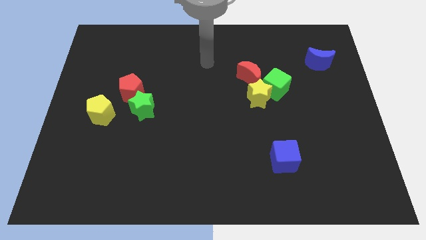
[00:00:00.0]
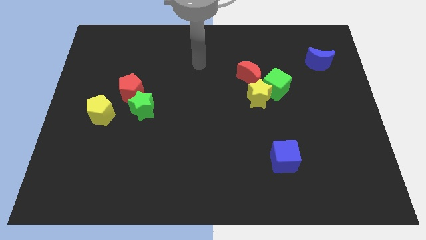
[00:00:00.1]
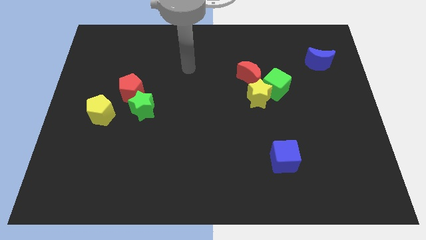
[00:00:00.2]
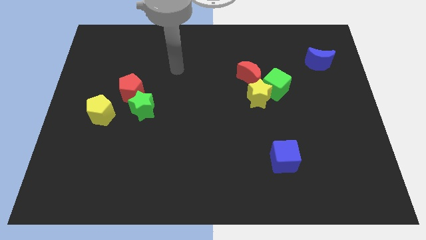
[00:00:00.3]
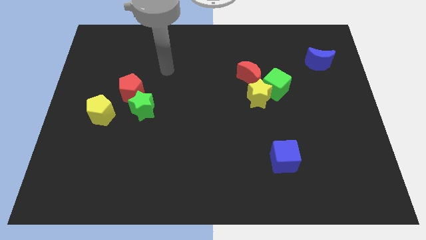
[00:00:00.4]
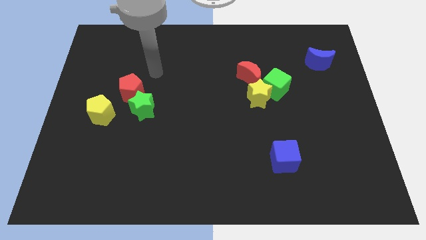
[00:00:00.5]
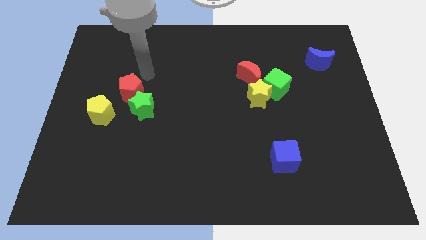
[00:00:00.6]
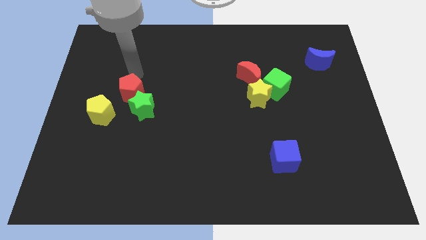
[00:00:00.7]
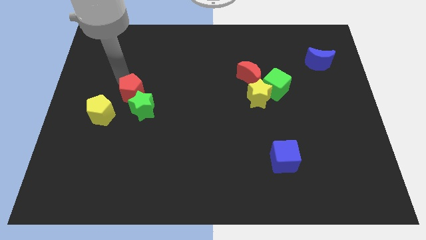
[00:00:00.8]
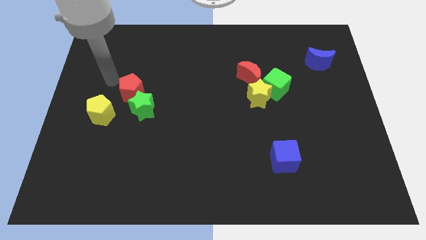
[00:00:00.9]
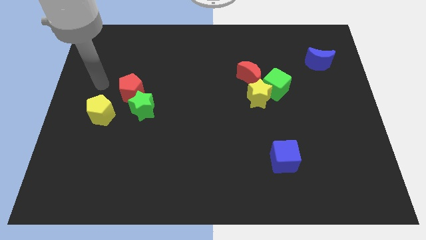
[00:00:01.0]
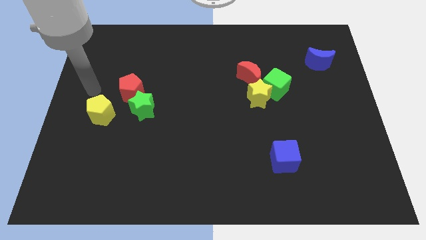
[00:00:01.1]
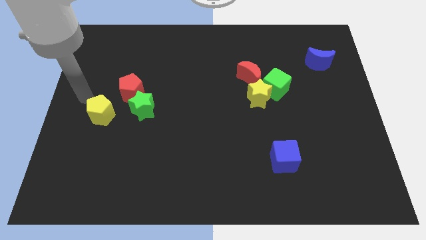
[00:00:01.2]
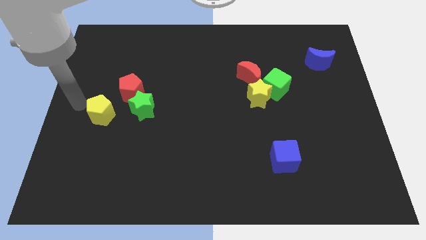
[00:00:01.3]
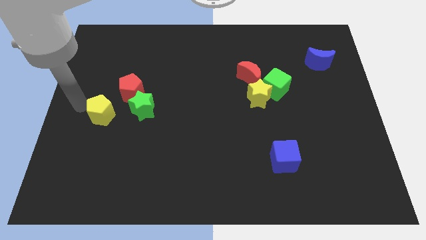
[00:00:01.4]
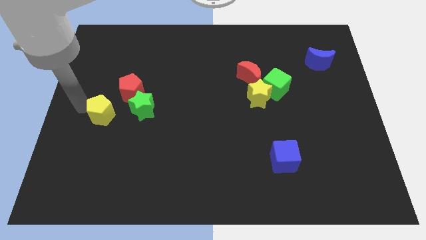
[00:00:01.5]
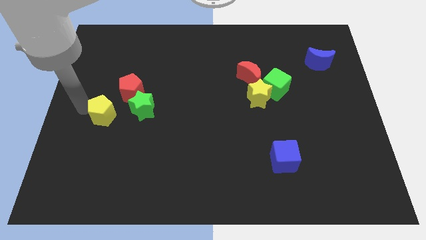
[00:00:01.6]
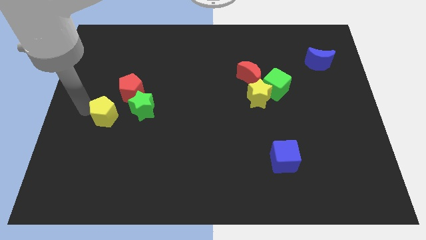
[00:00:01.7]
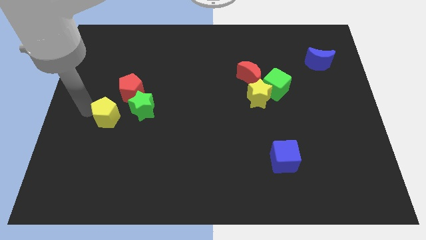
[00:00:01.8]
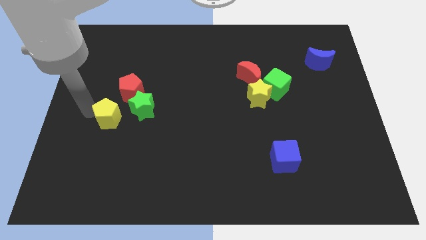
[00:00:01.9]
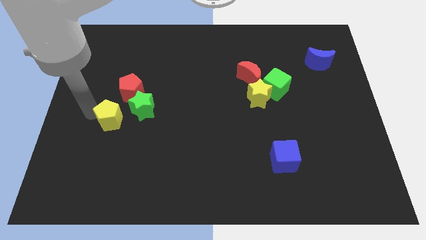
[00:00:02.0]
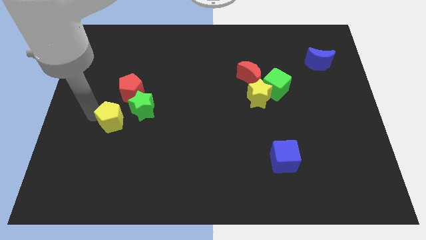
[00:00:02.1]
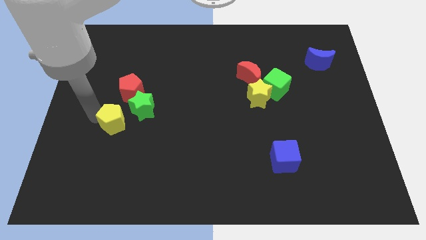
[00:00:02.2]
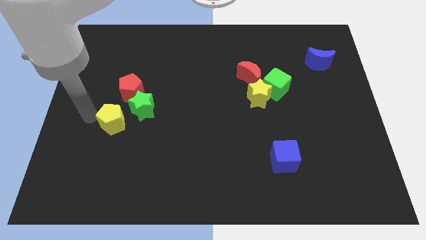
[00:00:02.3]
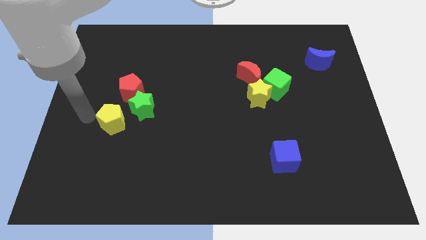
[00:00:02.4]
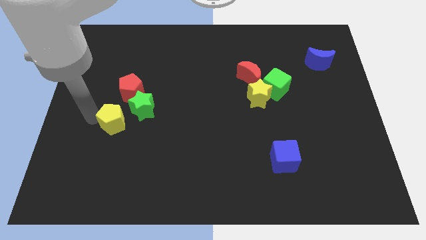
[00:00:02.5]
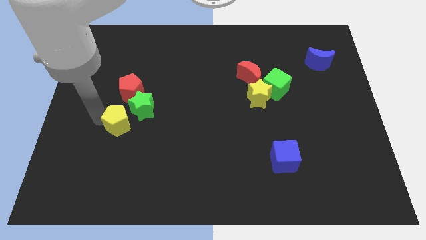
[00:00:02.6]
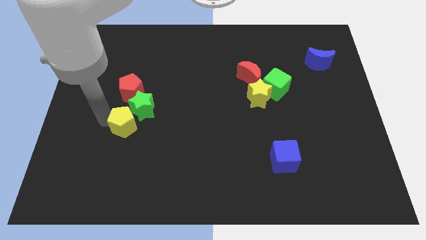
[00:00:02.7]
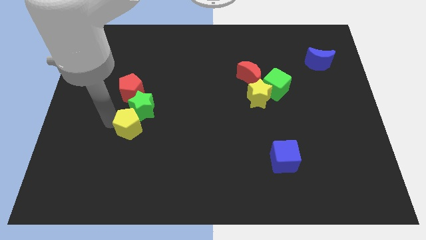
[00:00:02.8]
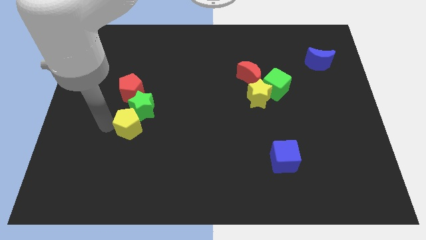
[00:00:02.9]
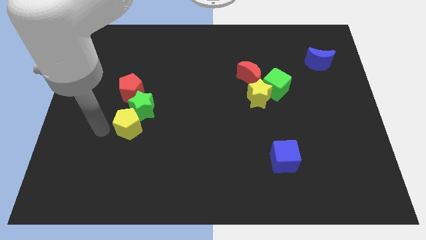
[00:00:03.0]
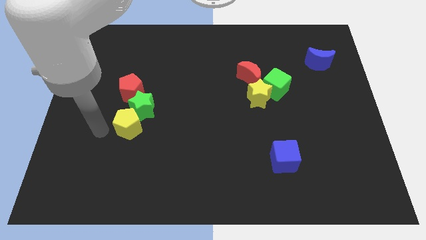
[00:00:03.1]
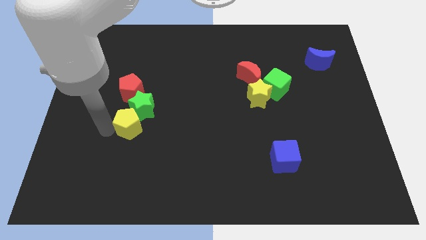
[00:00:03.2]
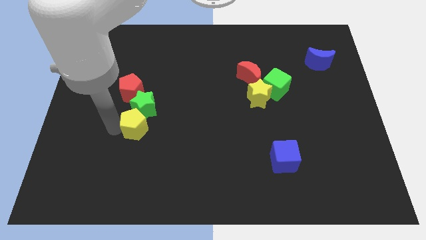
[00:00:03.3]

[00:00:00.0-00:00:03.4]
slide the yellow pentagon a little bit right

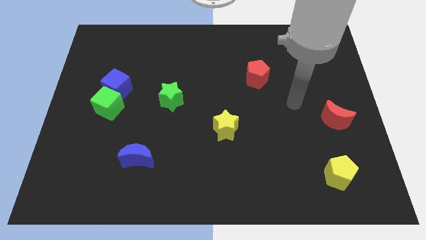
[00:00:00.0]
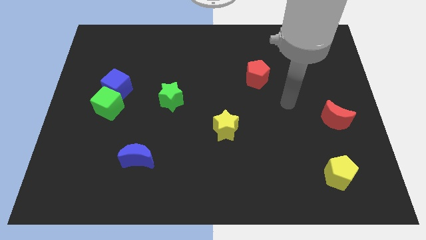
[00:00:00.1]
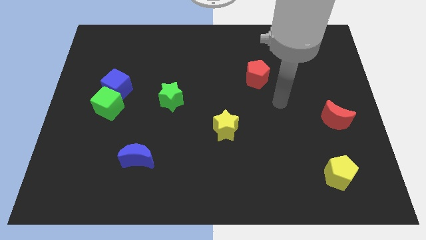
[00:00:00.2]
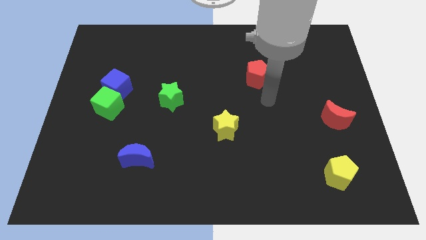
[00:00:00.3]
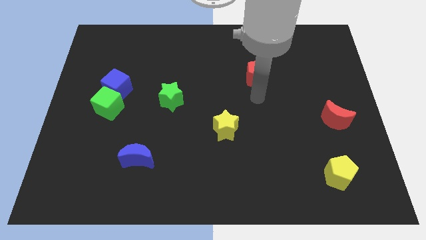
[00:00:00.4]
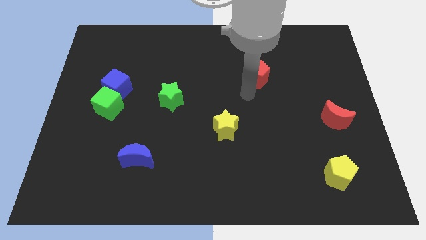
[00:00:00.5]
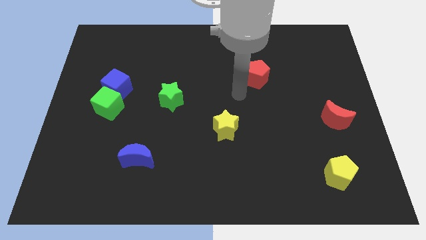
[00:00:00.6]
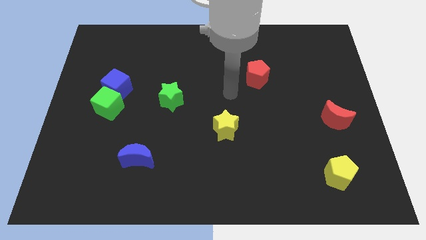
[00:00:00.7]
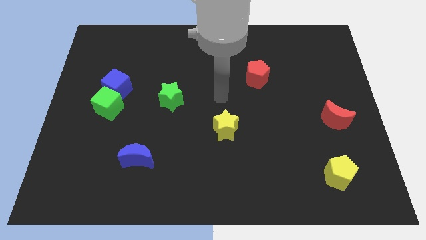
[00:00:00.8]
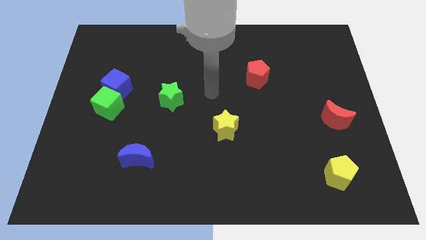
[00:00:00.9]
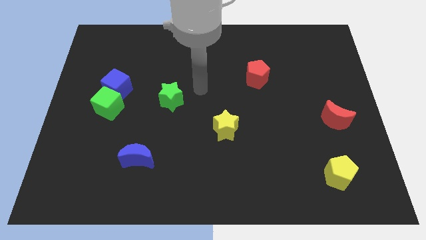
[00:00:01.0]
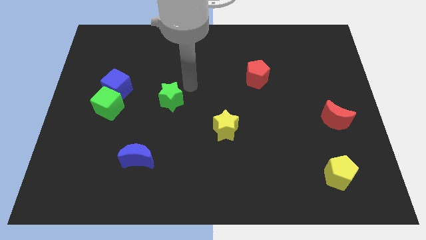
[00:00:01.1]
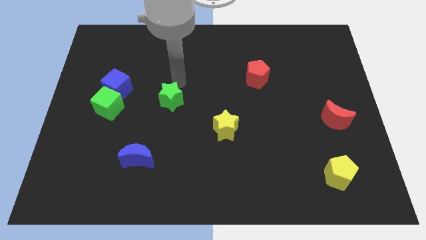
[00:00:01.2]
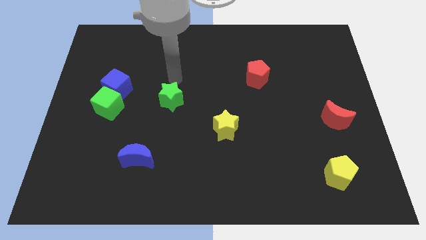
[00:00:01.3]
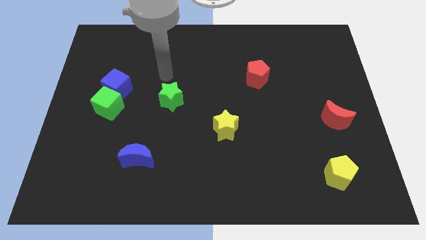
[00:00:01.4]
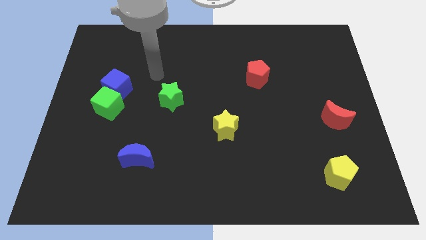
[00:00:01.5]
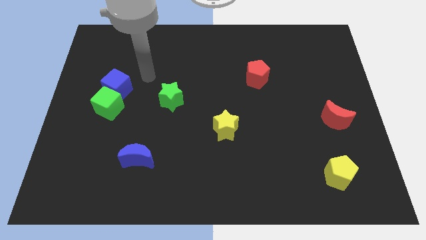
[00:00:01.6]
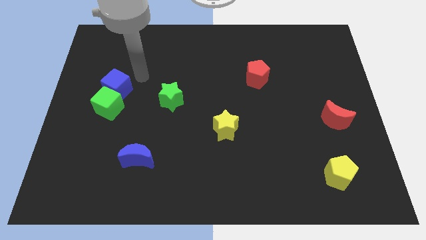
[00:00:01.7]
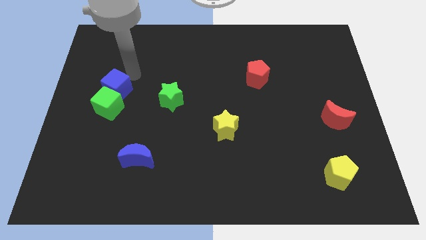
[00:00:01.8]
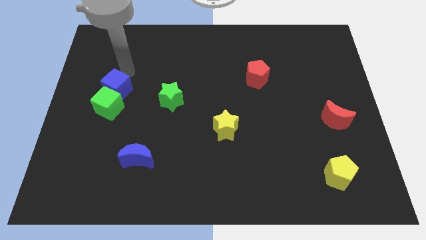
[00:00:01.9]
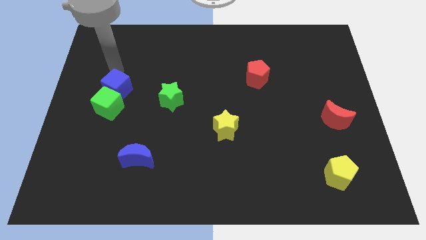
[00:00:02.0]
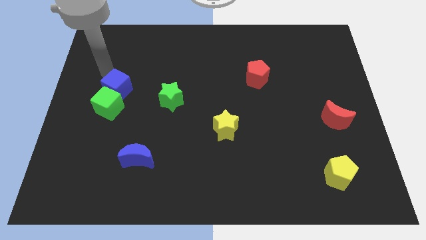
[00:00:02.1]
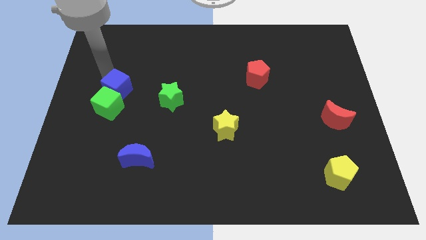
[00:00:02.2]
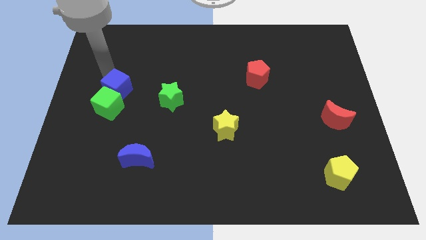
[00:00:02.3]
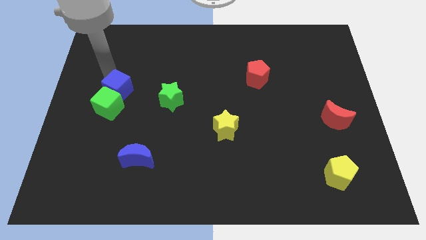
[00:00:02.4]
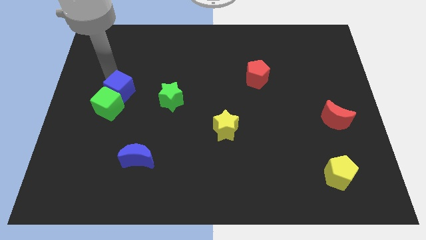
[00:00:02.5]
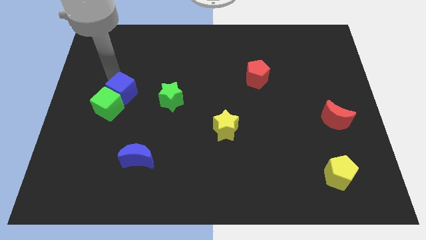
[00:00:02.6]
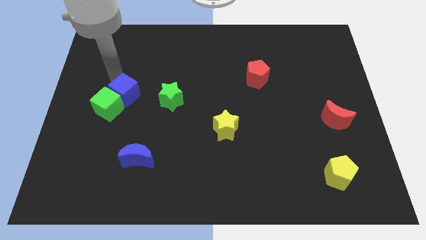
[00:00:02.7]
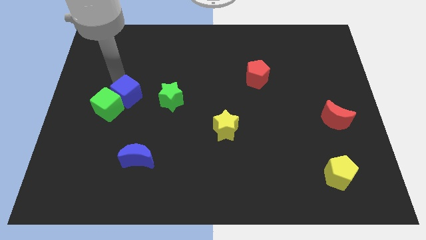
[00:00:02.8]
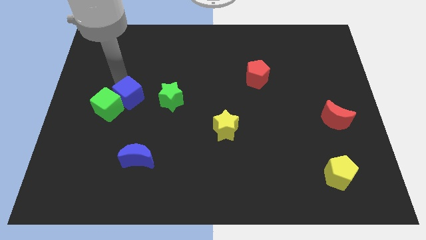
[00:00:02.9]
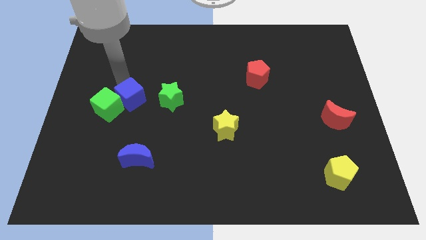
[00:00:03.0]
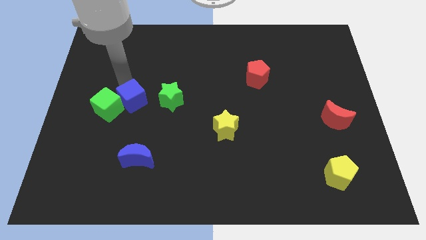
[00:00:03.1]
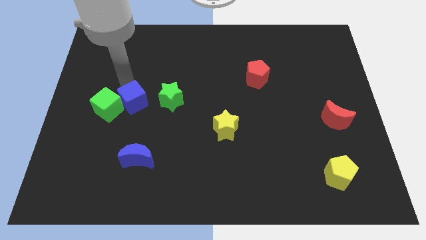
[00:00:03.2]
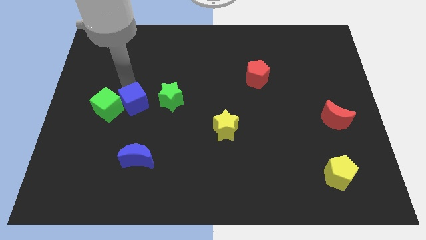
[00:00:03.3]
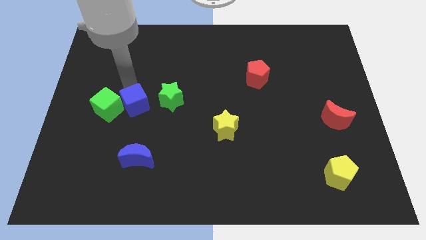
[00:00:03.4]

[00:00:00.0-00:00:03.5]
slightly push the blue cube down and right diagonally

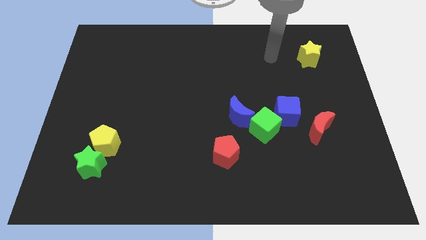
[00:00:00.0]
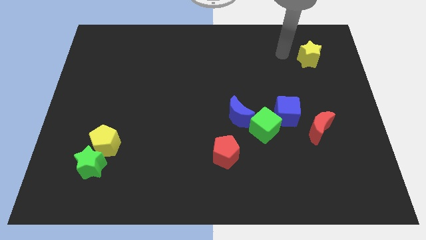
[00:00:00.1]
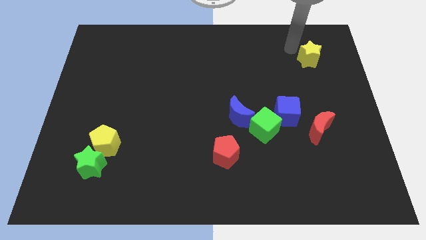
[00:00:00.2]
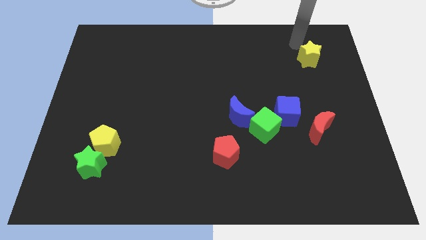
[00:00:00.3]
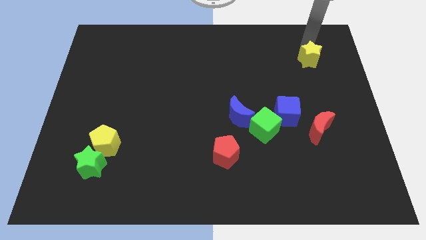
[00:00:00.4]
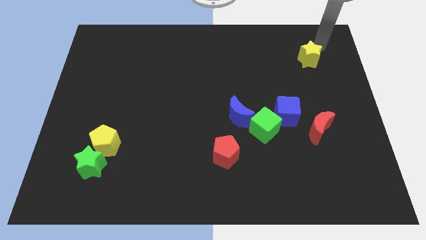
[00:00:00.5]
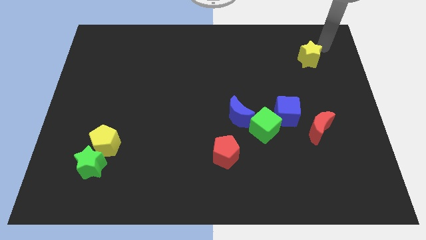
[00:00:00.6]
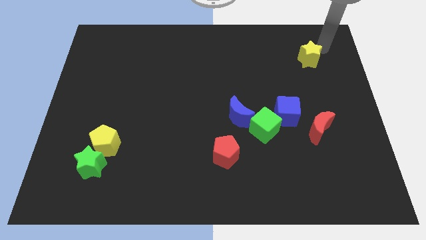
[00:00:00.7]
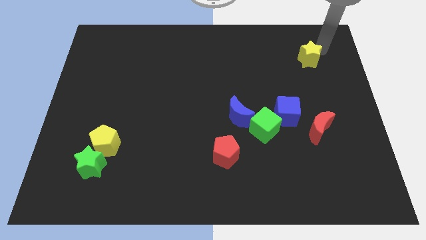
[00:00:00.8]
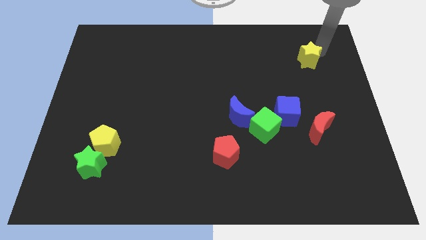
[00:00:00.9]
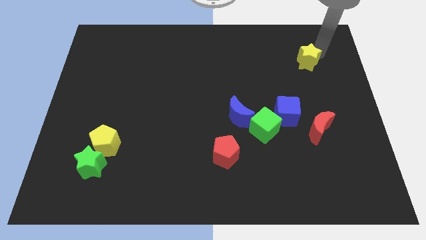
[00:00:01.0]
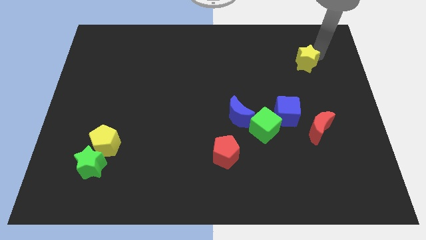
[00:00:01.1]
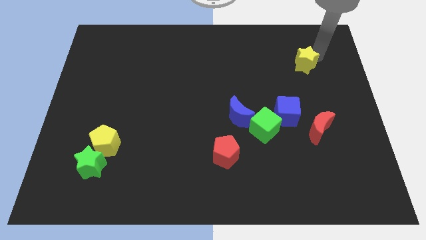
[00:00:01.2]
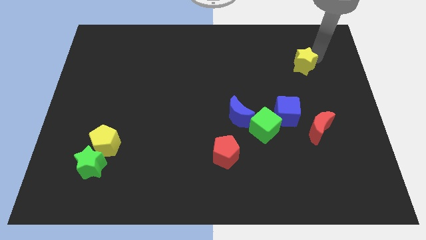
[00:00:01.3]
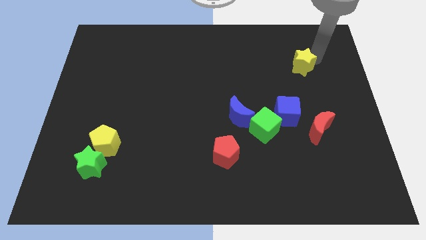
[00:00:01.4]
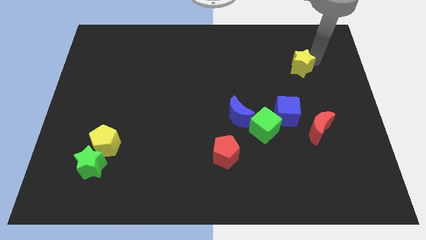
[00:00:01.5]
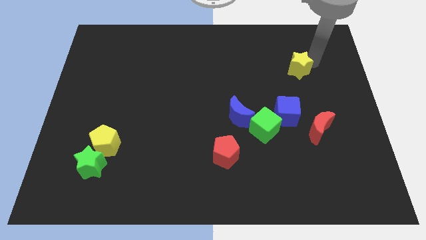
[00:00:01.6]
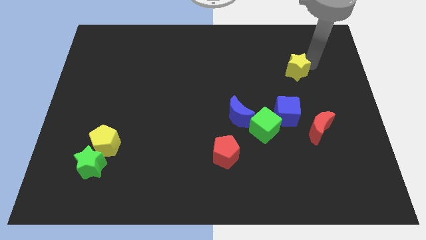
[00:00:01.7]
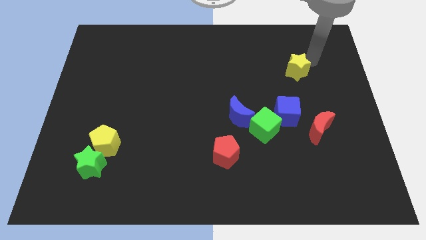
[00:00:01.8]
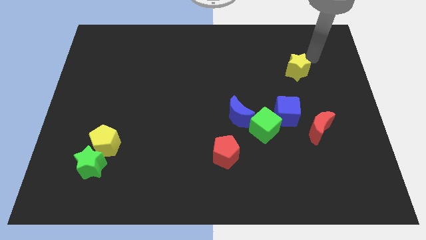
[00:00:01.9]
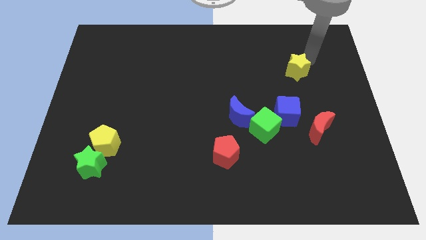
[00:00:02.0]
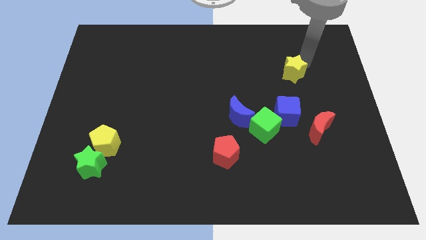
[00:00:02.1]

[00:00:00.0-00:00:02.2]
push the yellow star slightly down and left
